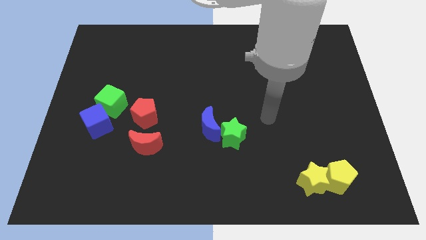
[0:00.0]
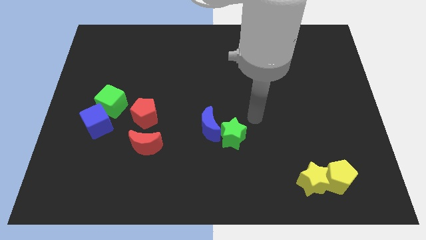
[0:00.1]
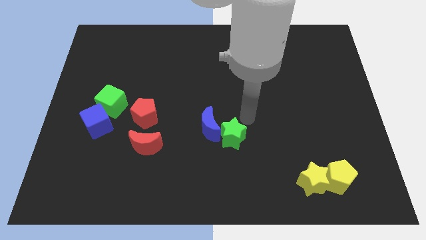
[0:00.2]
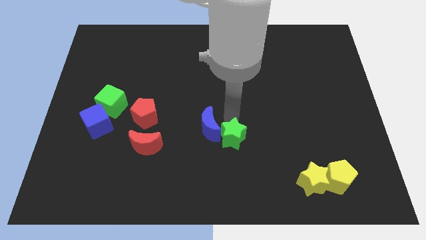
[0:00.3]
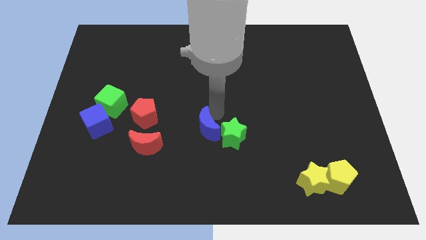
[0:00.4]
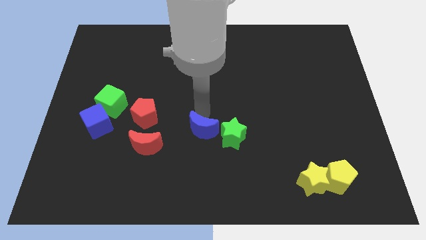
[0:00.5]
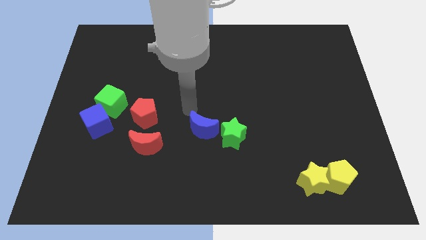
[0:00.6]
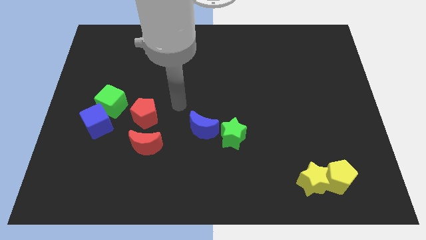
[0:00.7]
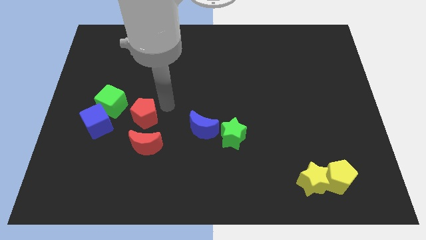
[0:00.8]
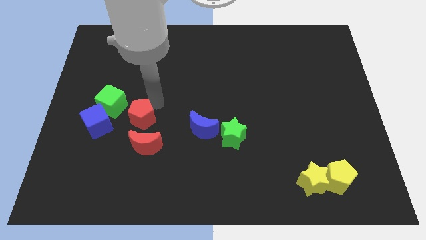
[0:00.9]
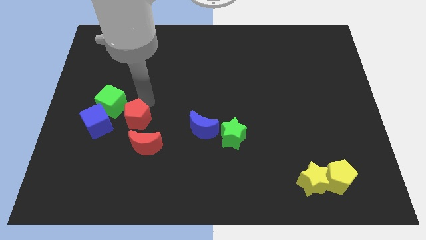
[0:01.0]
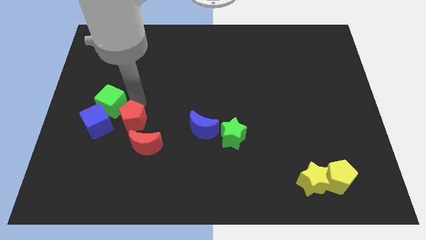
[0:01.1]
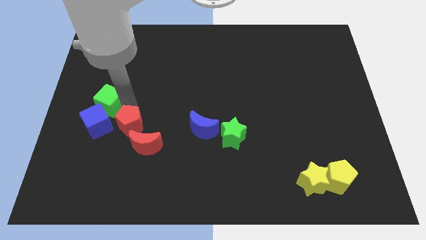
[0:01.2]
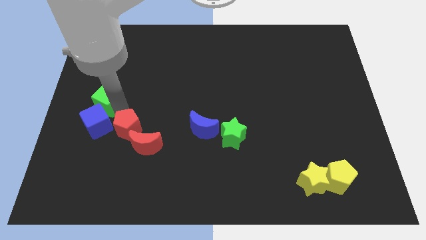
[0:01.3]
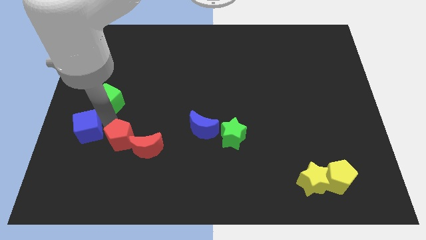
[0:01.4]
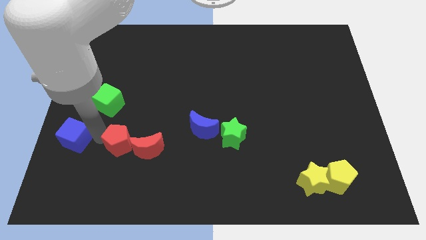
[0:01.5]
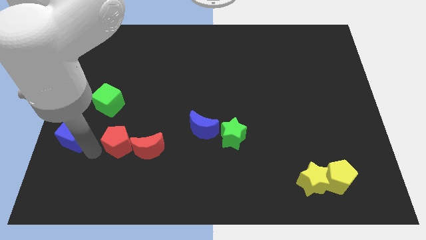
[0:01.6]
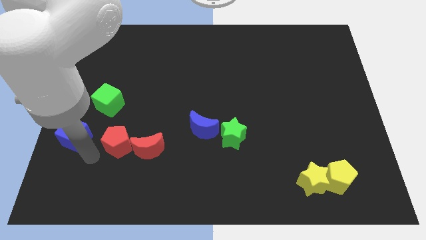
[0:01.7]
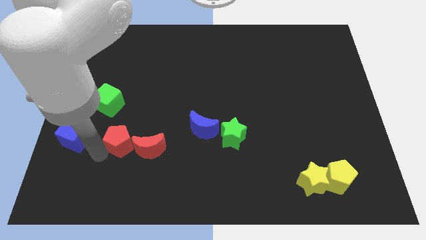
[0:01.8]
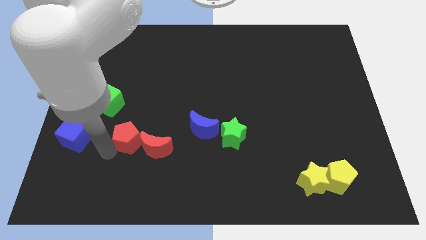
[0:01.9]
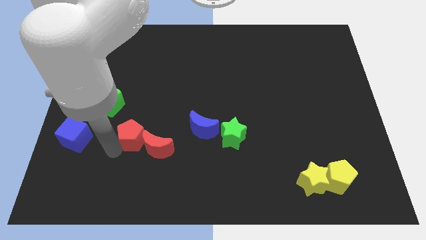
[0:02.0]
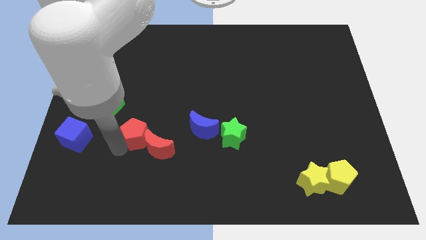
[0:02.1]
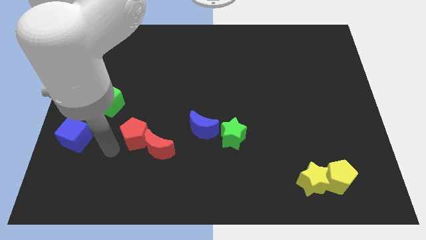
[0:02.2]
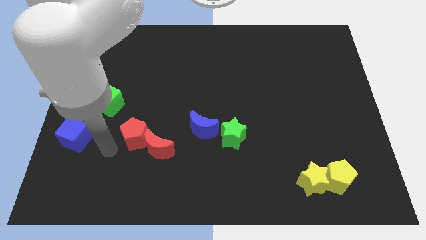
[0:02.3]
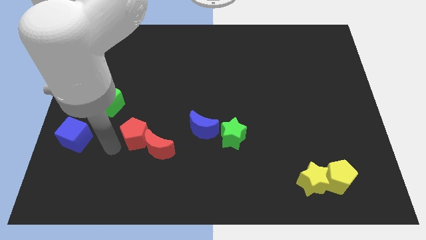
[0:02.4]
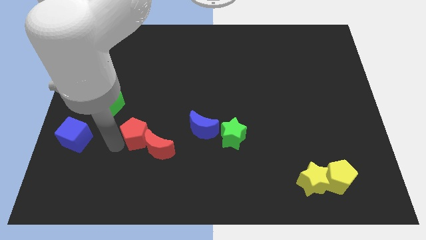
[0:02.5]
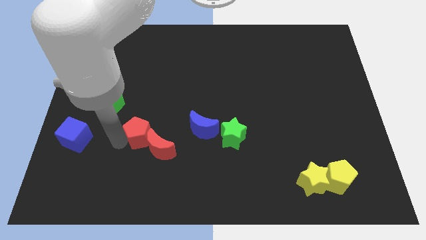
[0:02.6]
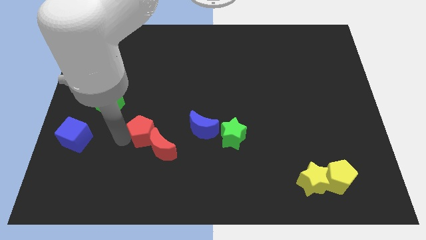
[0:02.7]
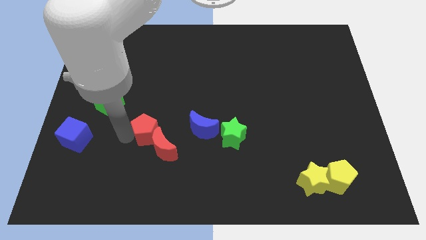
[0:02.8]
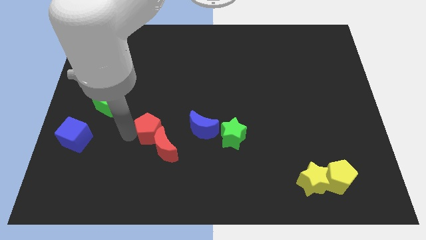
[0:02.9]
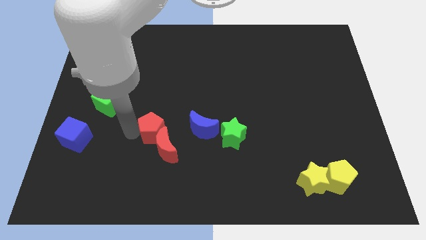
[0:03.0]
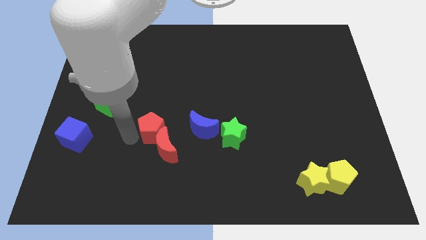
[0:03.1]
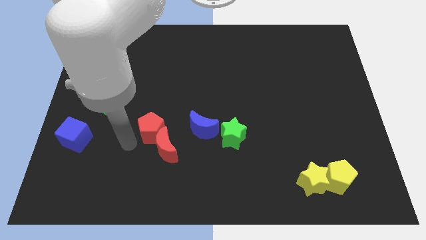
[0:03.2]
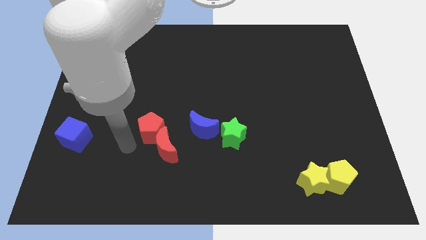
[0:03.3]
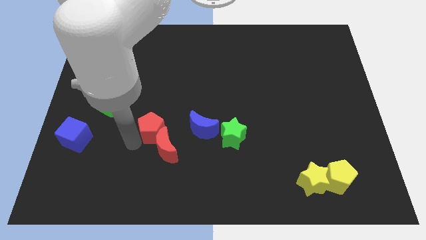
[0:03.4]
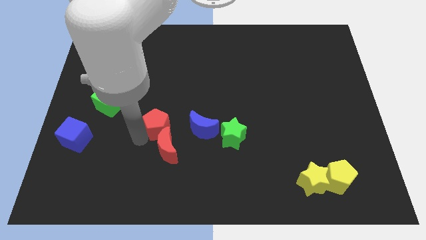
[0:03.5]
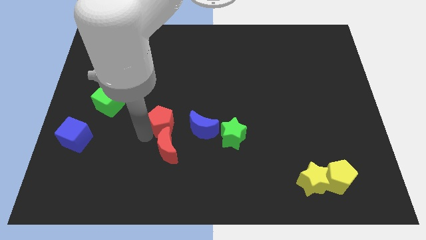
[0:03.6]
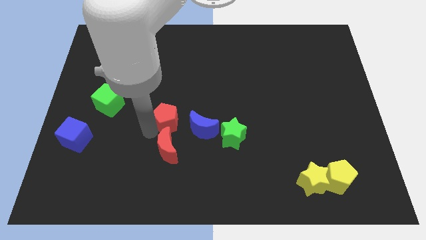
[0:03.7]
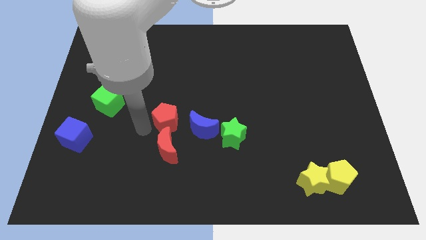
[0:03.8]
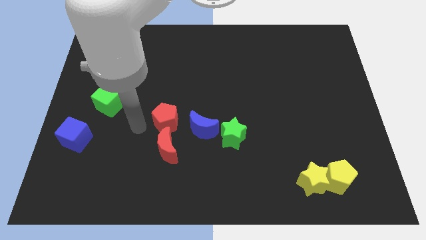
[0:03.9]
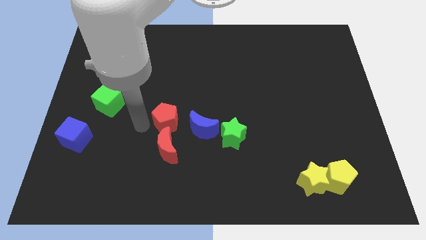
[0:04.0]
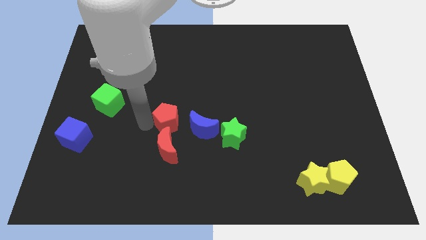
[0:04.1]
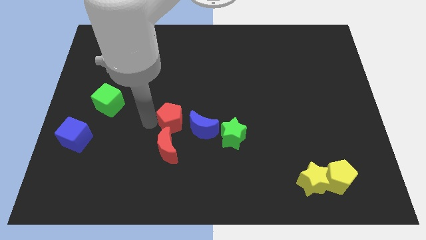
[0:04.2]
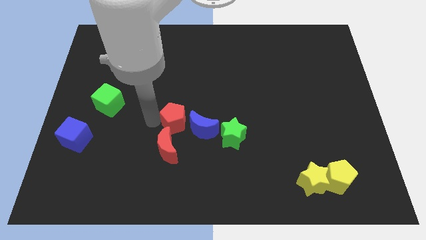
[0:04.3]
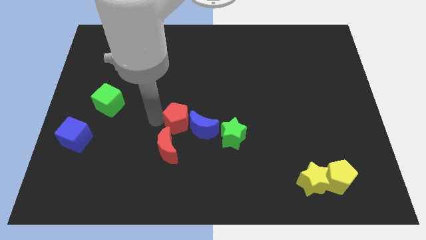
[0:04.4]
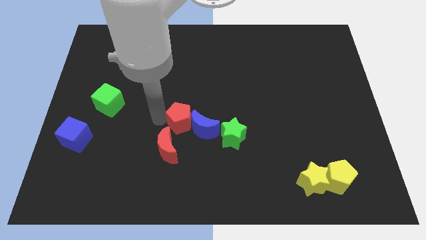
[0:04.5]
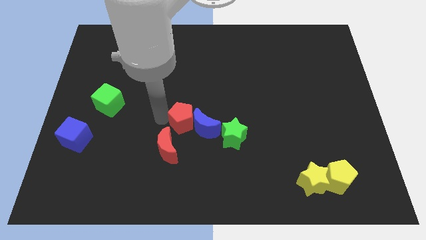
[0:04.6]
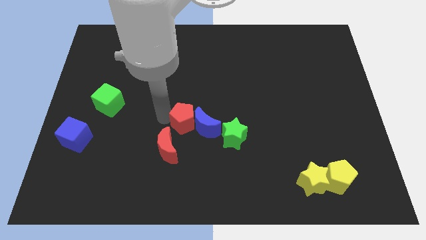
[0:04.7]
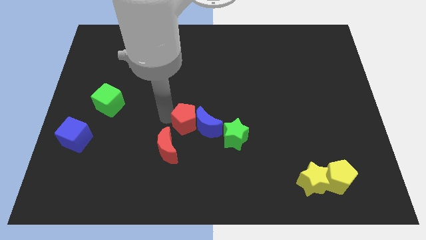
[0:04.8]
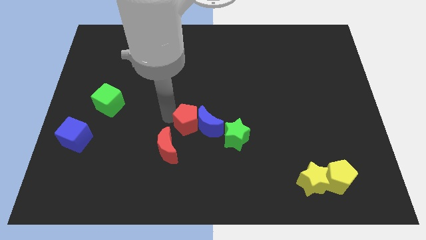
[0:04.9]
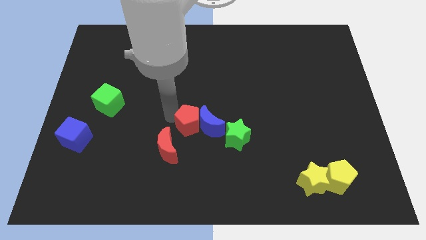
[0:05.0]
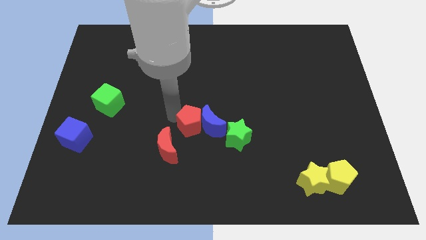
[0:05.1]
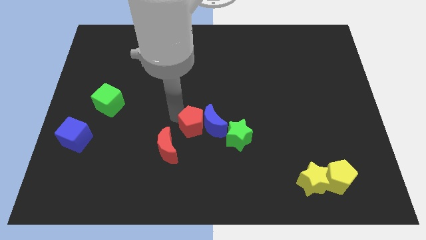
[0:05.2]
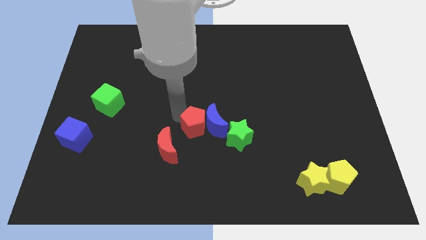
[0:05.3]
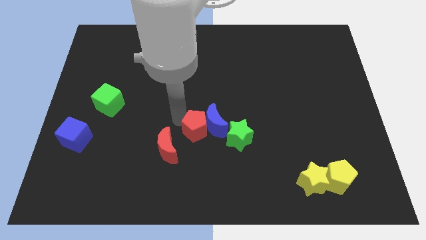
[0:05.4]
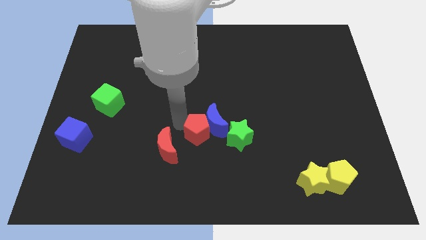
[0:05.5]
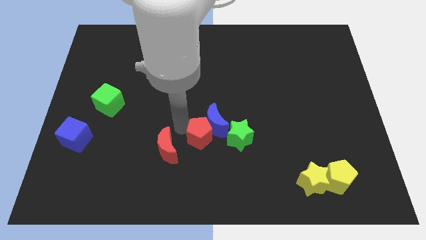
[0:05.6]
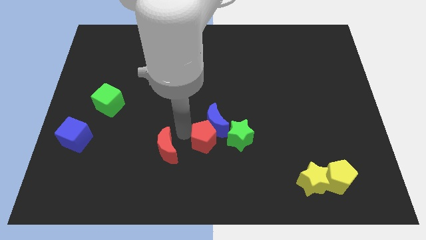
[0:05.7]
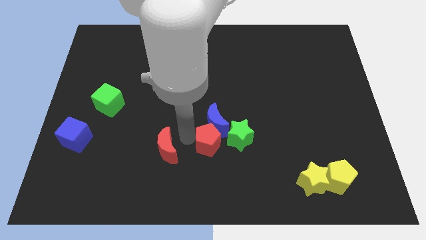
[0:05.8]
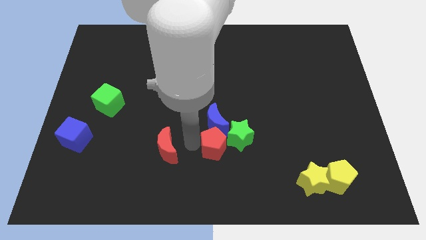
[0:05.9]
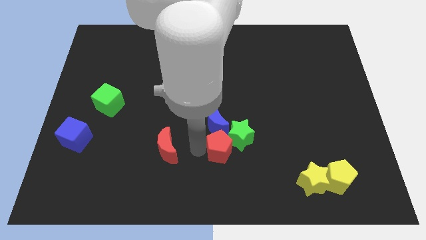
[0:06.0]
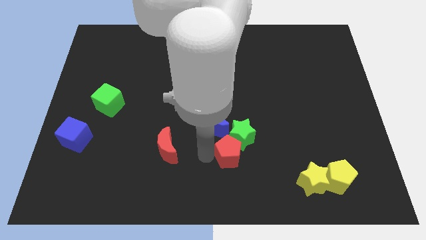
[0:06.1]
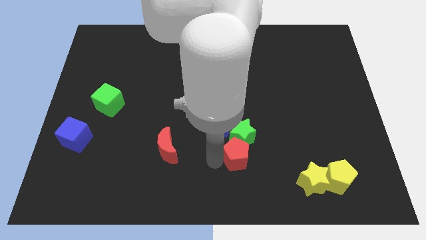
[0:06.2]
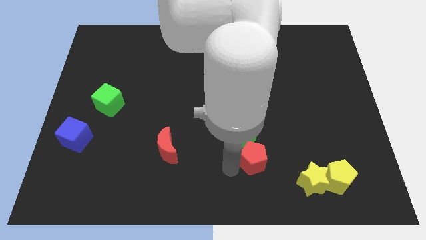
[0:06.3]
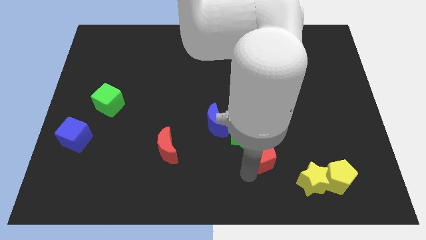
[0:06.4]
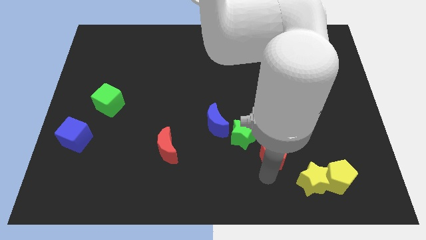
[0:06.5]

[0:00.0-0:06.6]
move the red pentagon right

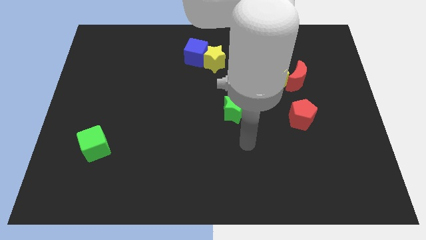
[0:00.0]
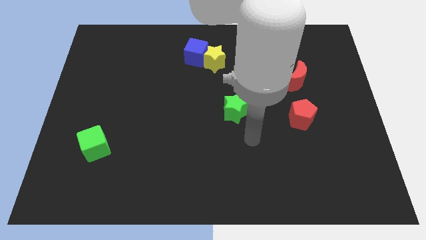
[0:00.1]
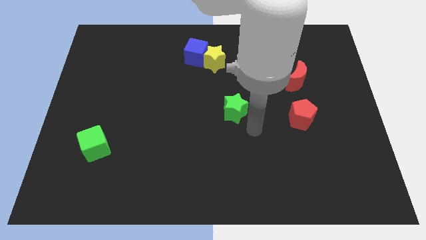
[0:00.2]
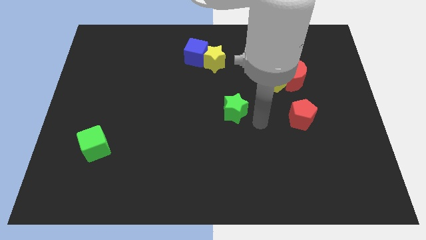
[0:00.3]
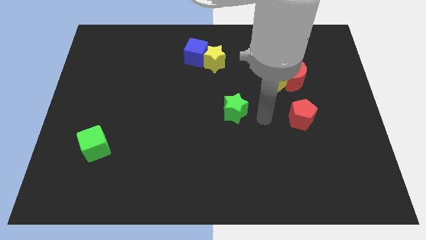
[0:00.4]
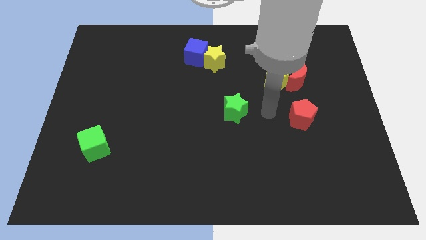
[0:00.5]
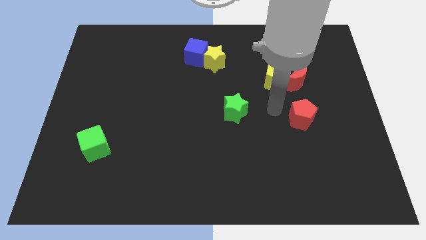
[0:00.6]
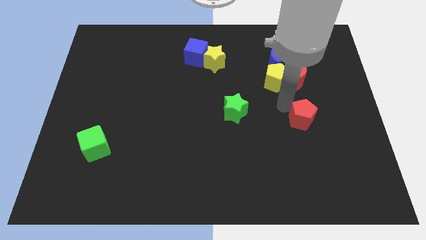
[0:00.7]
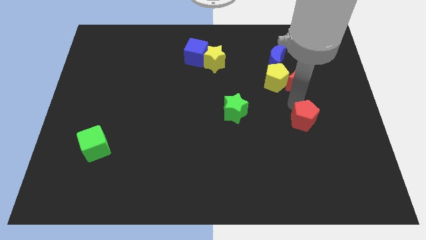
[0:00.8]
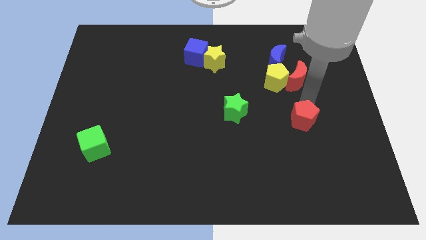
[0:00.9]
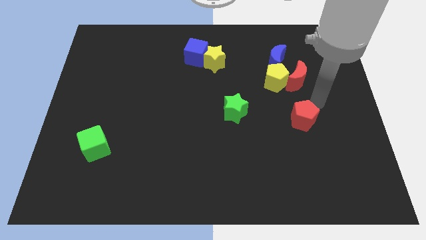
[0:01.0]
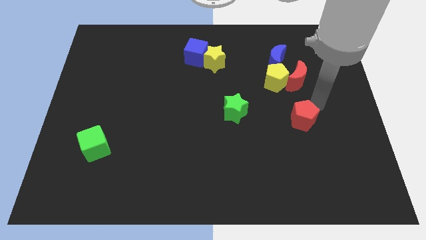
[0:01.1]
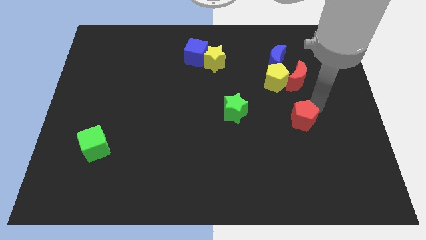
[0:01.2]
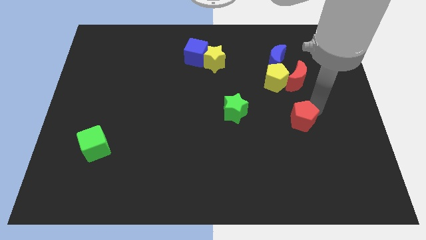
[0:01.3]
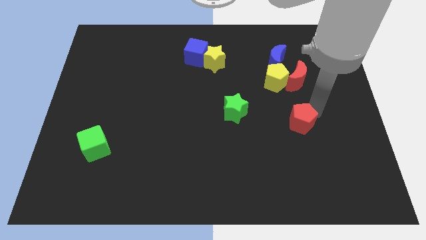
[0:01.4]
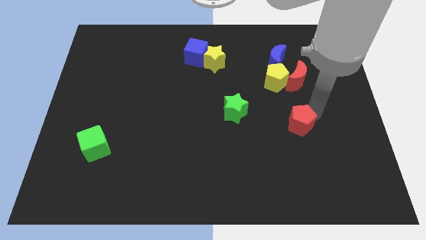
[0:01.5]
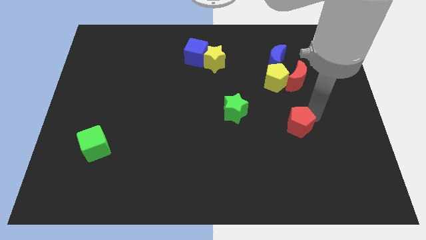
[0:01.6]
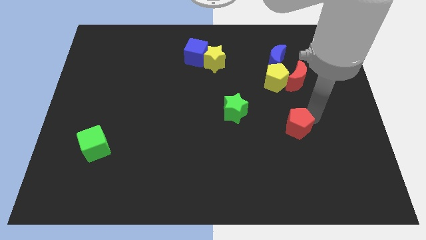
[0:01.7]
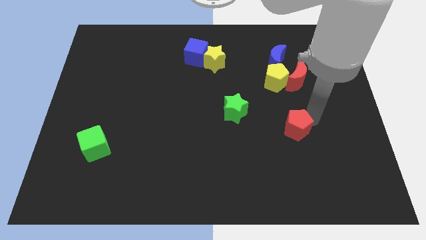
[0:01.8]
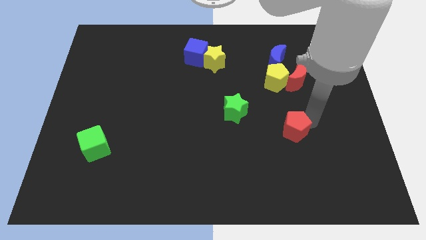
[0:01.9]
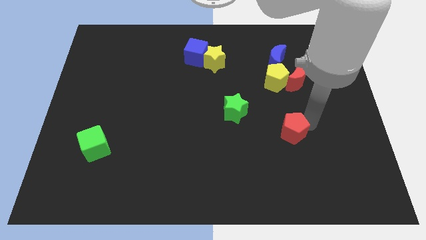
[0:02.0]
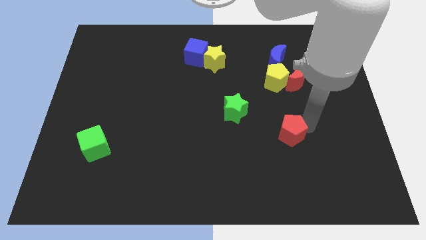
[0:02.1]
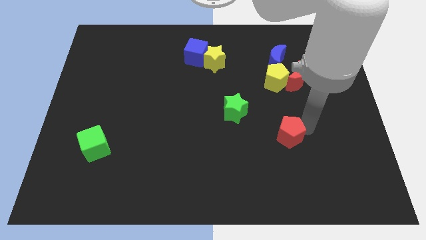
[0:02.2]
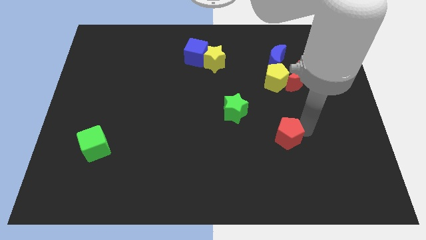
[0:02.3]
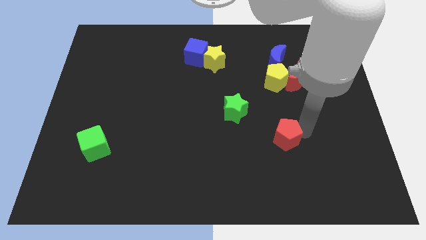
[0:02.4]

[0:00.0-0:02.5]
move the red pentagon slightly downwards and left
